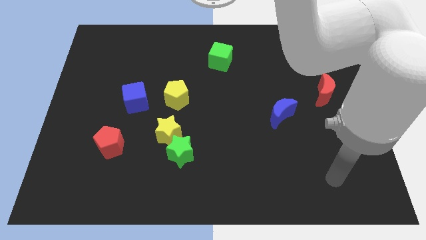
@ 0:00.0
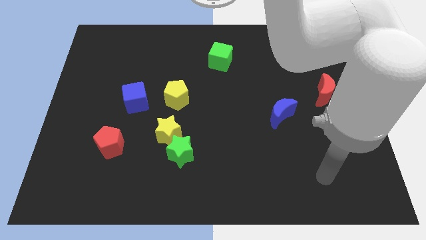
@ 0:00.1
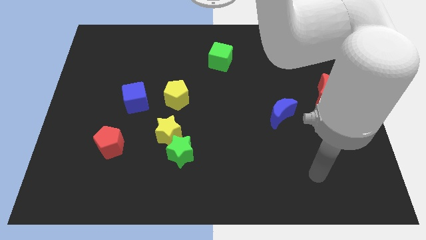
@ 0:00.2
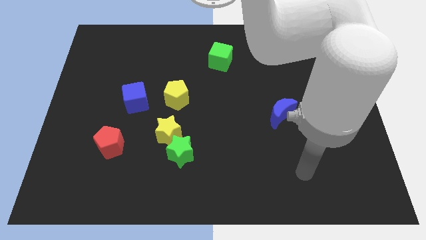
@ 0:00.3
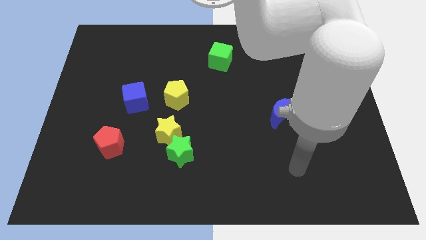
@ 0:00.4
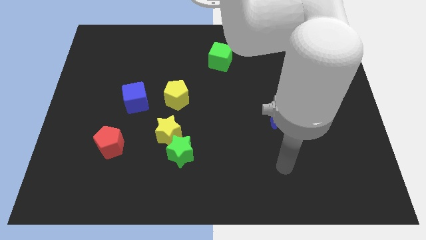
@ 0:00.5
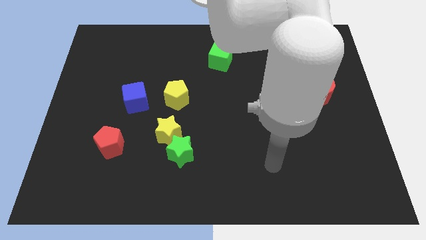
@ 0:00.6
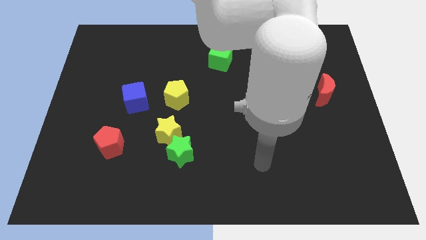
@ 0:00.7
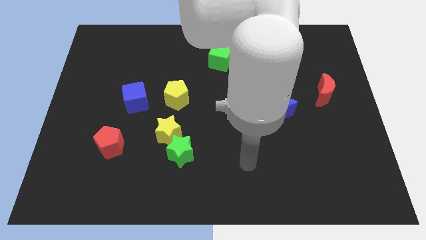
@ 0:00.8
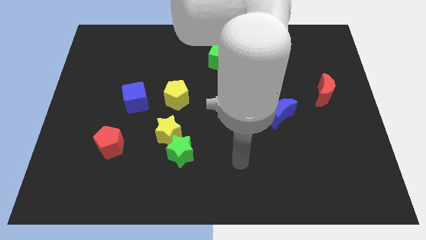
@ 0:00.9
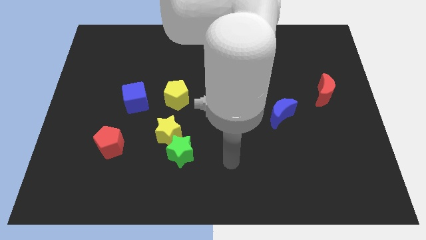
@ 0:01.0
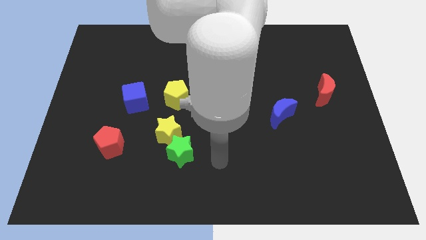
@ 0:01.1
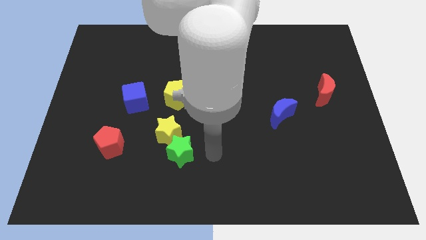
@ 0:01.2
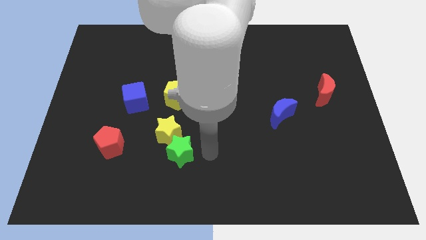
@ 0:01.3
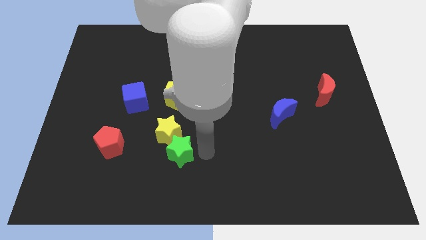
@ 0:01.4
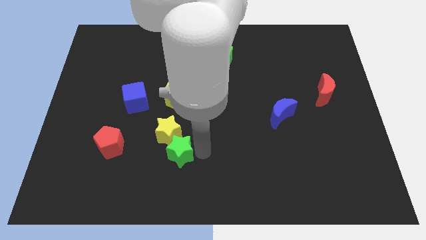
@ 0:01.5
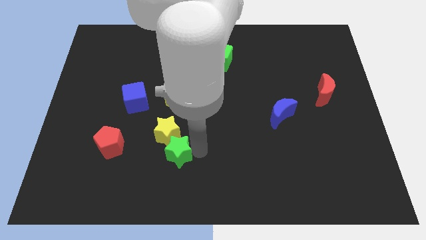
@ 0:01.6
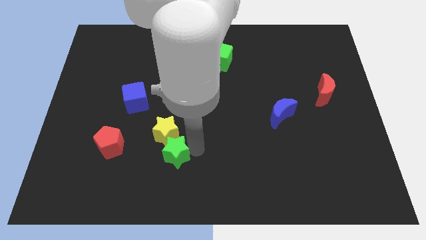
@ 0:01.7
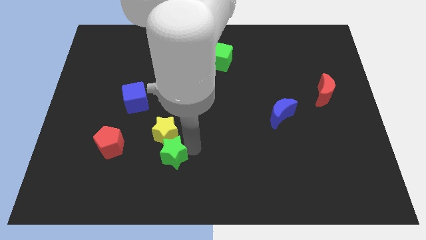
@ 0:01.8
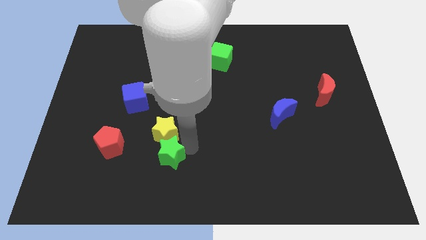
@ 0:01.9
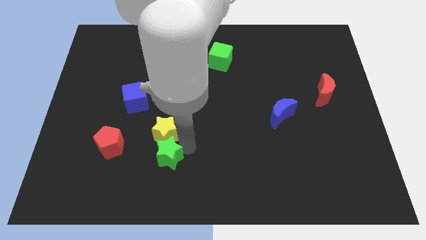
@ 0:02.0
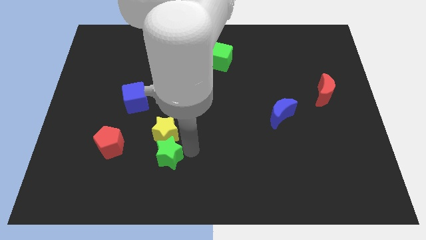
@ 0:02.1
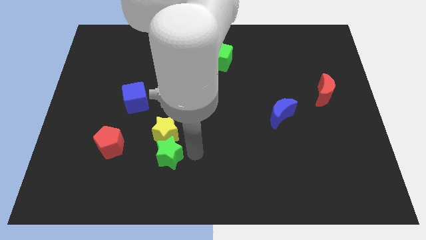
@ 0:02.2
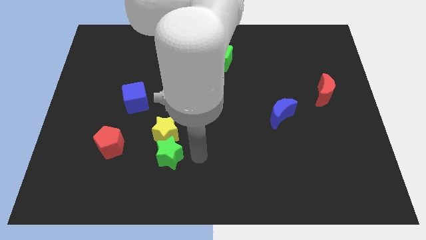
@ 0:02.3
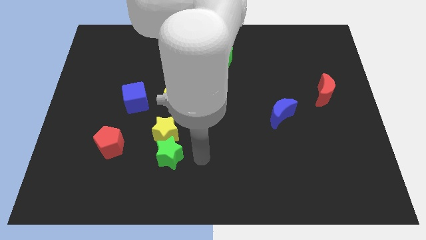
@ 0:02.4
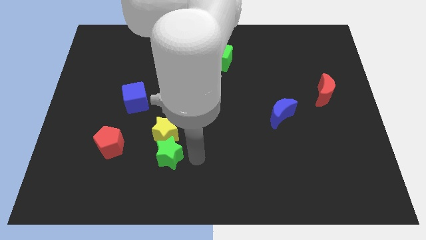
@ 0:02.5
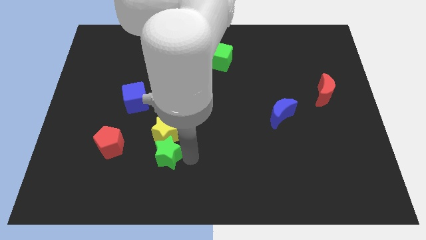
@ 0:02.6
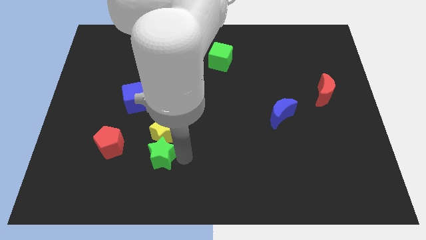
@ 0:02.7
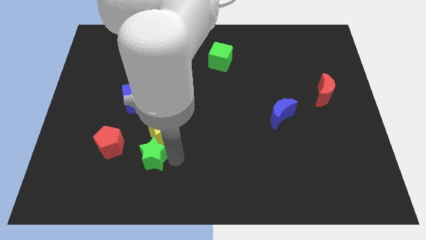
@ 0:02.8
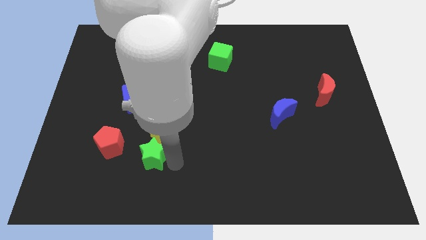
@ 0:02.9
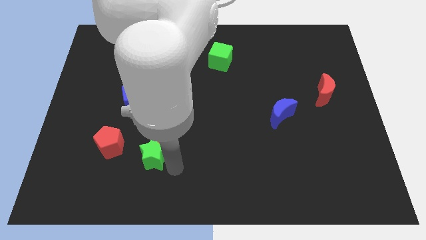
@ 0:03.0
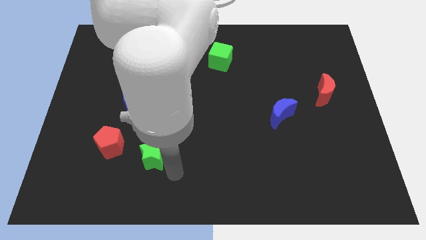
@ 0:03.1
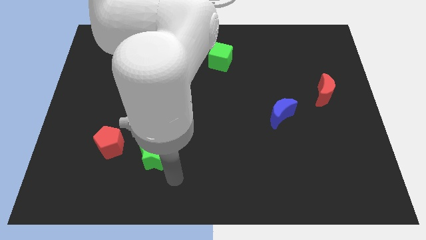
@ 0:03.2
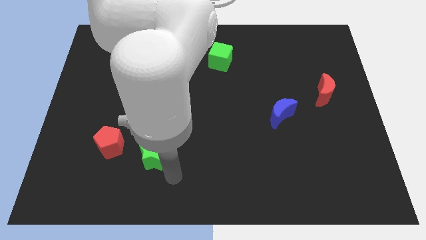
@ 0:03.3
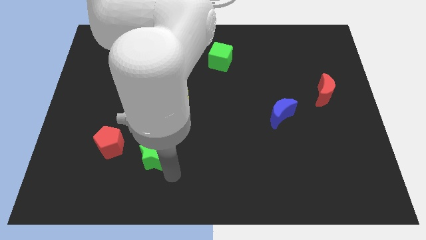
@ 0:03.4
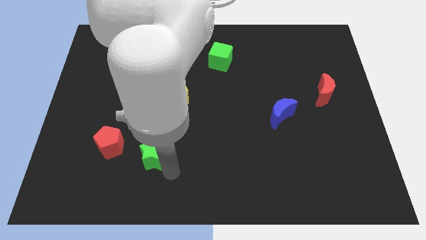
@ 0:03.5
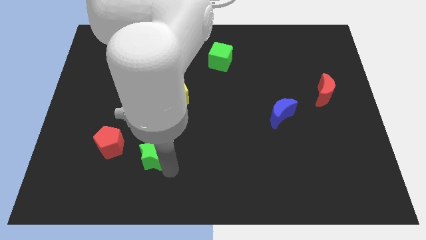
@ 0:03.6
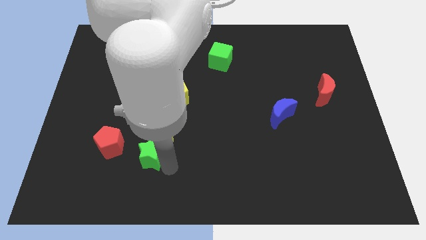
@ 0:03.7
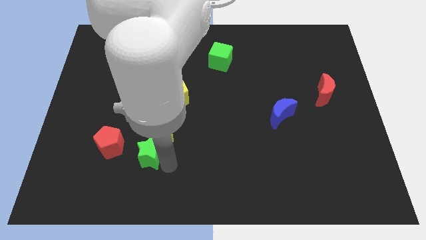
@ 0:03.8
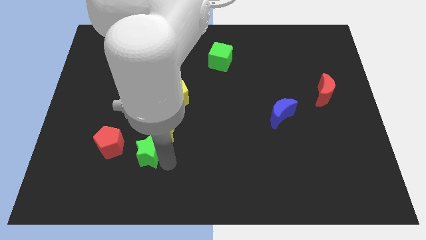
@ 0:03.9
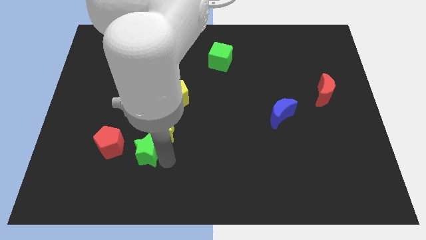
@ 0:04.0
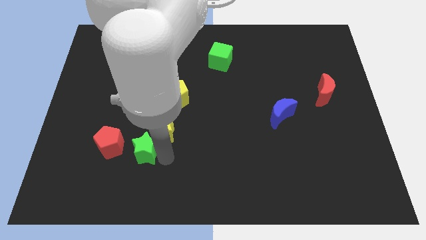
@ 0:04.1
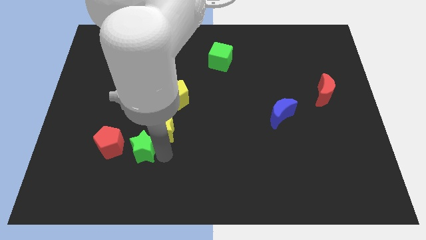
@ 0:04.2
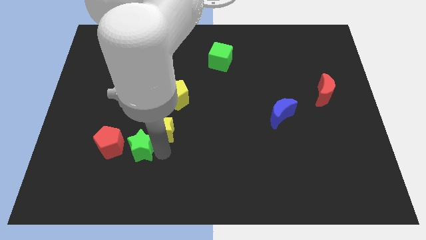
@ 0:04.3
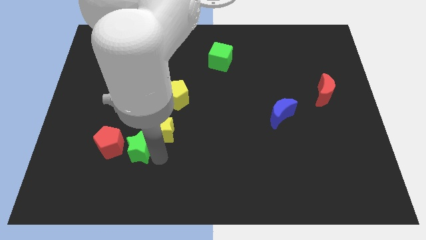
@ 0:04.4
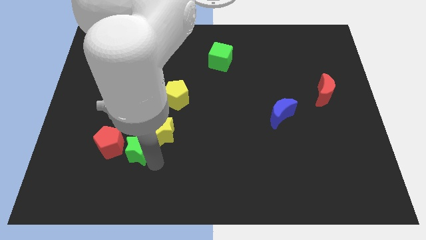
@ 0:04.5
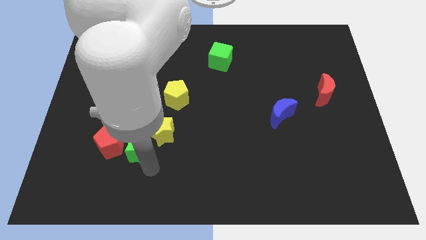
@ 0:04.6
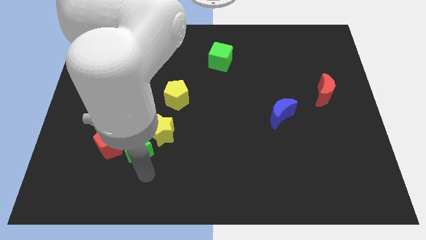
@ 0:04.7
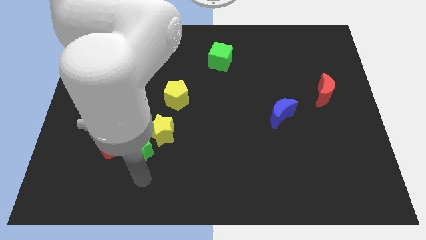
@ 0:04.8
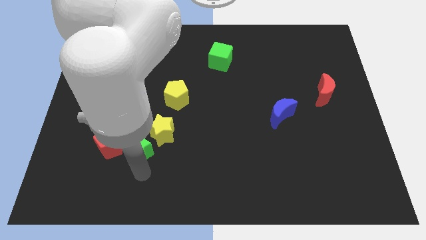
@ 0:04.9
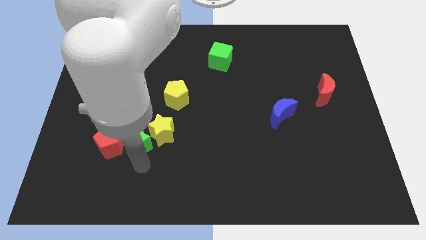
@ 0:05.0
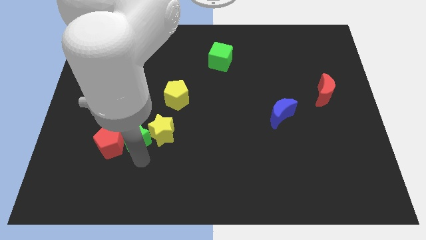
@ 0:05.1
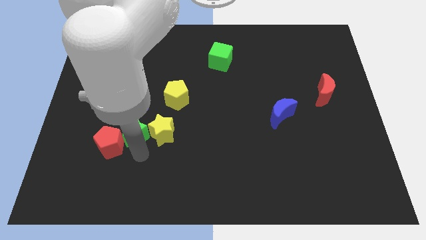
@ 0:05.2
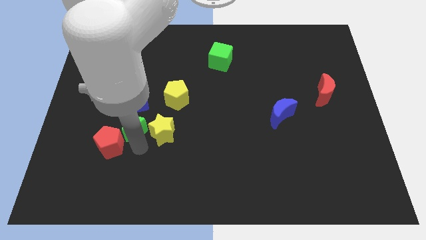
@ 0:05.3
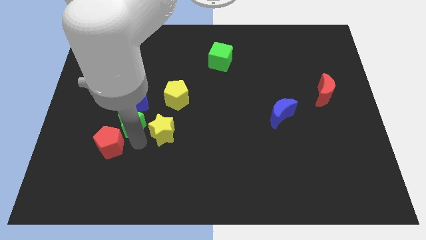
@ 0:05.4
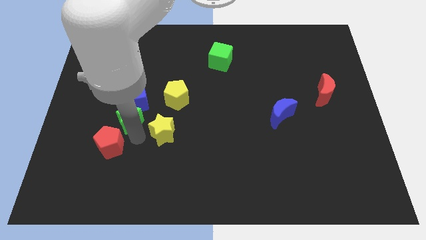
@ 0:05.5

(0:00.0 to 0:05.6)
slide the green star next to the blue cube

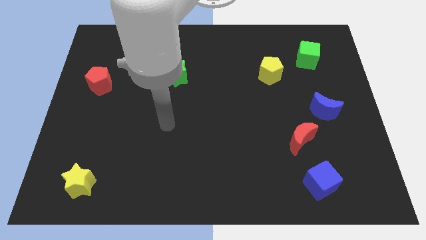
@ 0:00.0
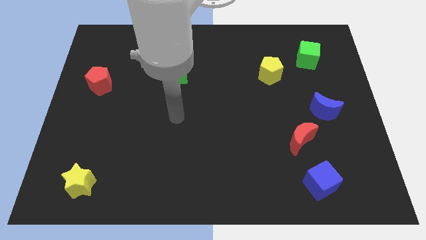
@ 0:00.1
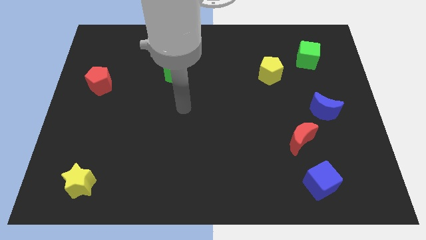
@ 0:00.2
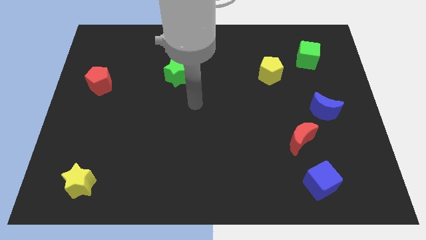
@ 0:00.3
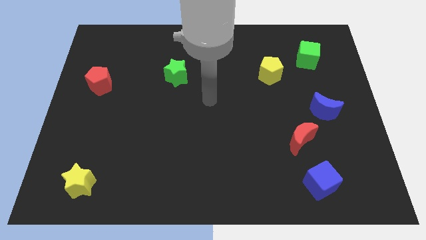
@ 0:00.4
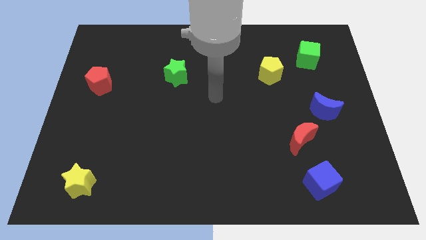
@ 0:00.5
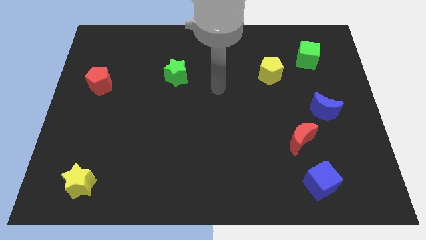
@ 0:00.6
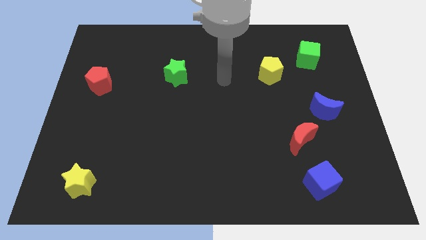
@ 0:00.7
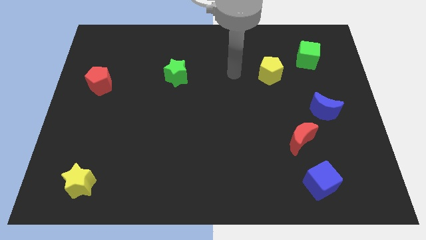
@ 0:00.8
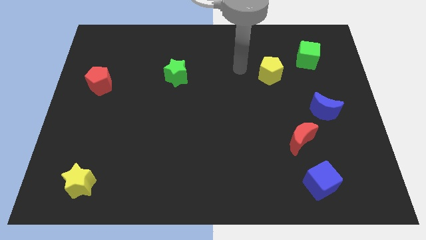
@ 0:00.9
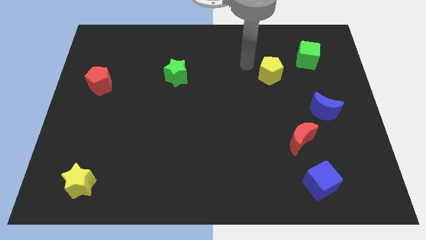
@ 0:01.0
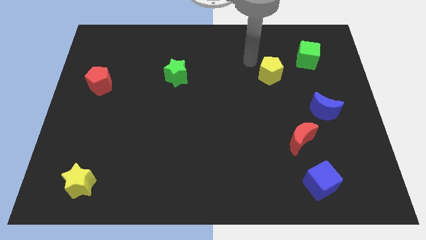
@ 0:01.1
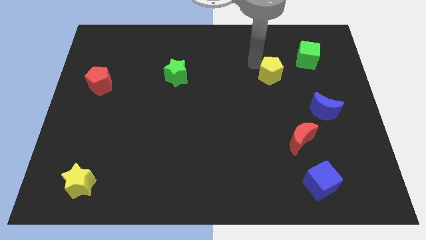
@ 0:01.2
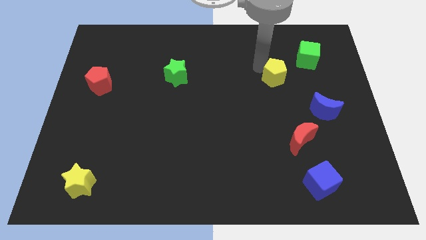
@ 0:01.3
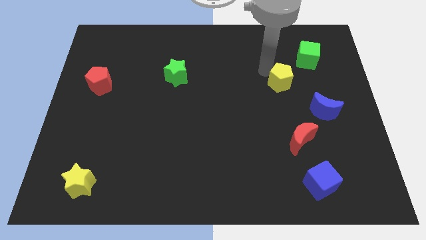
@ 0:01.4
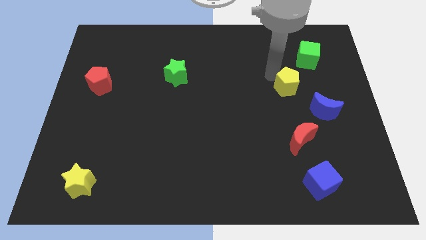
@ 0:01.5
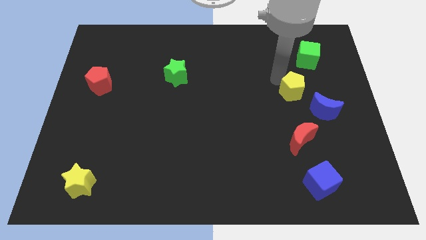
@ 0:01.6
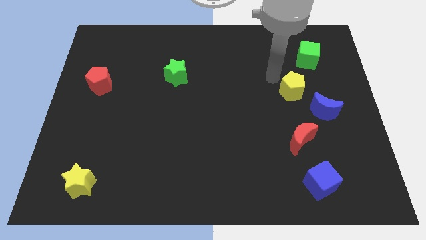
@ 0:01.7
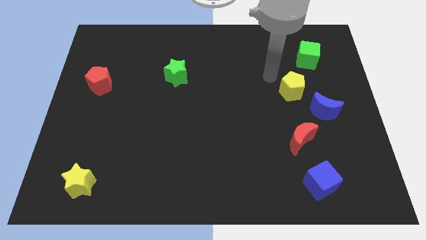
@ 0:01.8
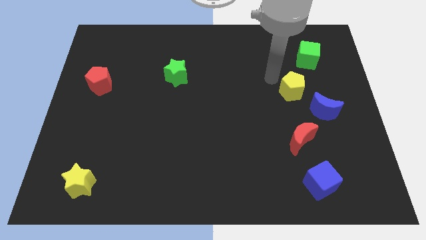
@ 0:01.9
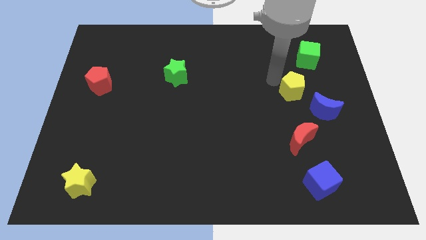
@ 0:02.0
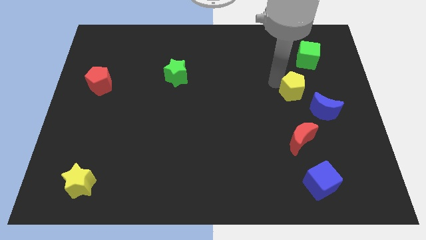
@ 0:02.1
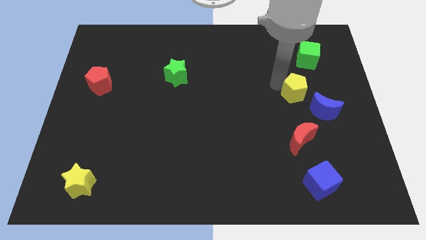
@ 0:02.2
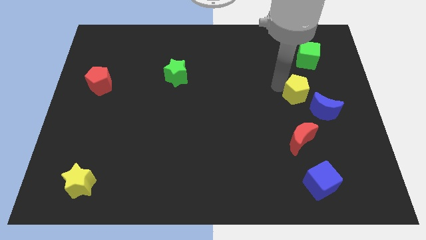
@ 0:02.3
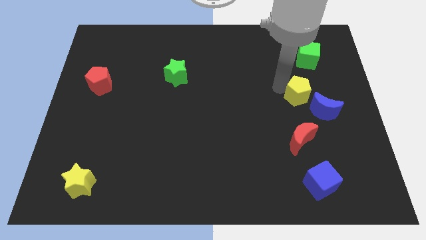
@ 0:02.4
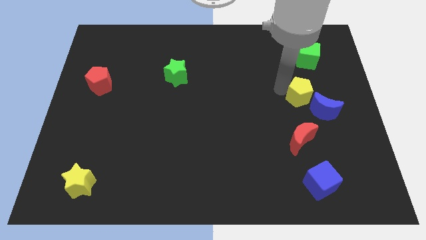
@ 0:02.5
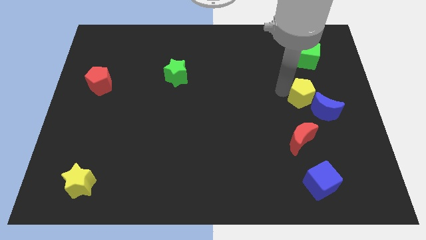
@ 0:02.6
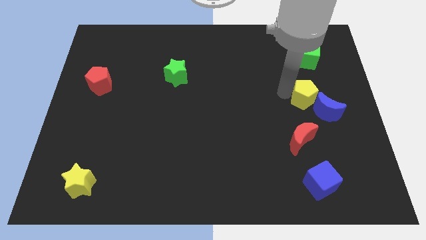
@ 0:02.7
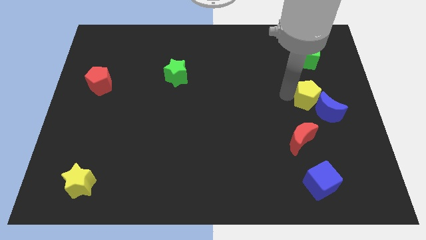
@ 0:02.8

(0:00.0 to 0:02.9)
move the yellow pentagon to the blue moon
